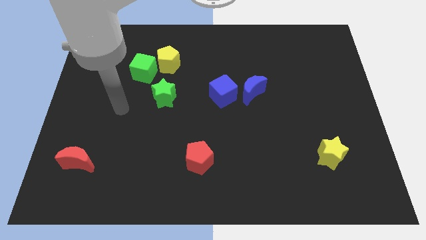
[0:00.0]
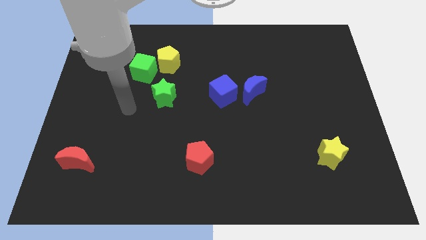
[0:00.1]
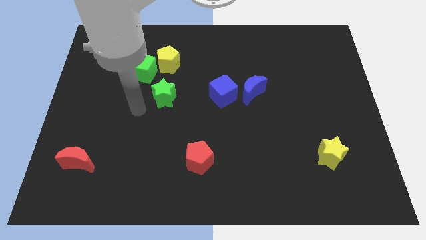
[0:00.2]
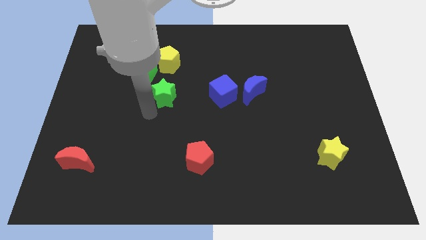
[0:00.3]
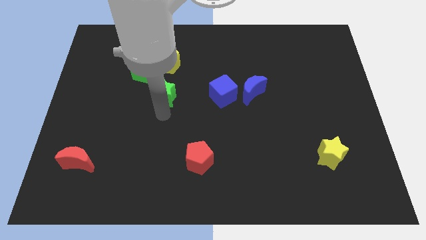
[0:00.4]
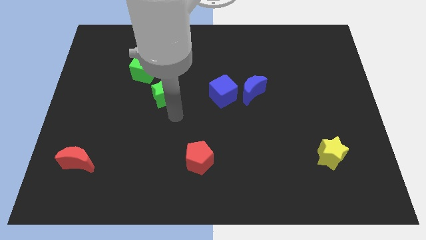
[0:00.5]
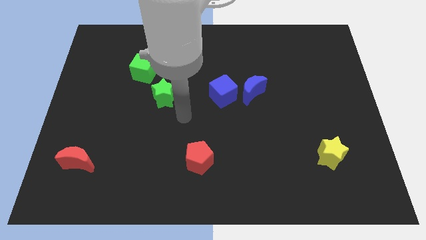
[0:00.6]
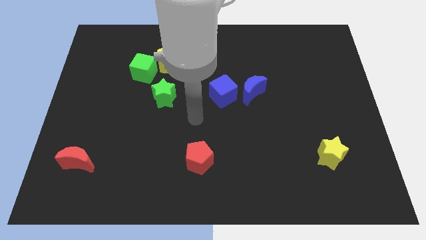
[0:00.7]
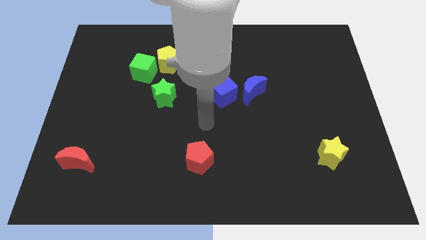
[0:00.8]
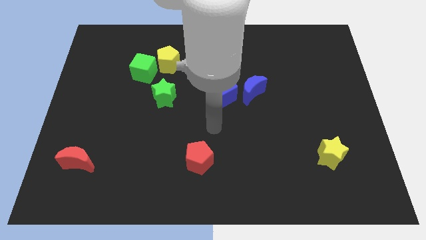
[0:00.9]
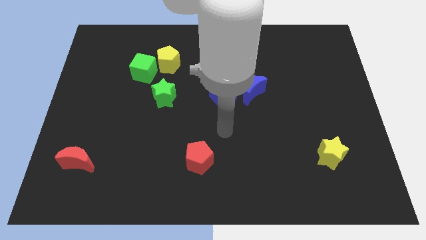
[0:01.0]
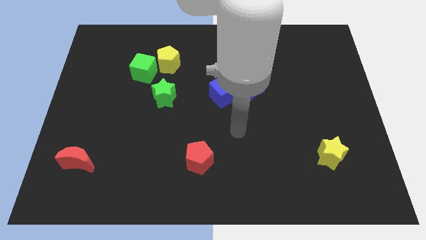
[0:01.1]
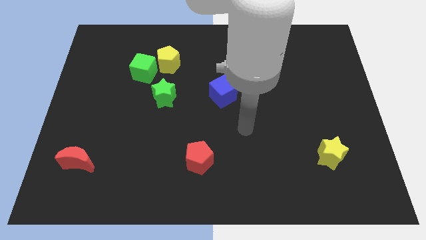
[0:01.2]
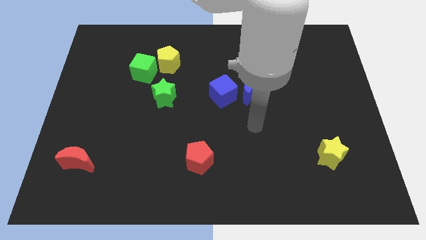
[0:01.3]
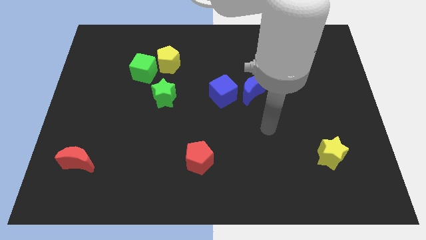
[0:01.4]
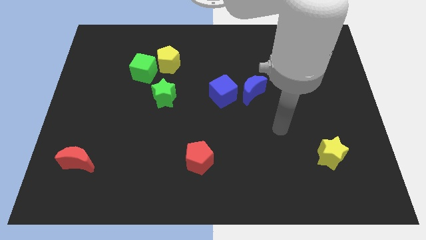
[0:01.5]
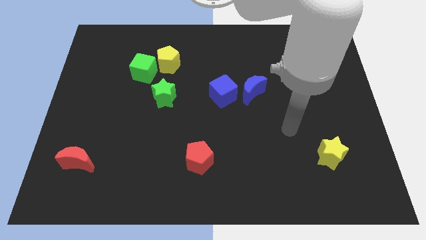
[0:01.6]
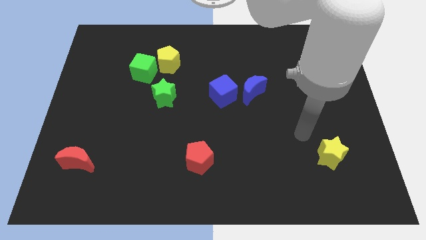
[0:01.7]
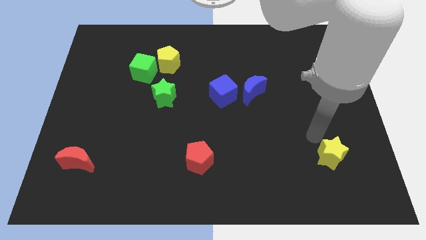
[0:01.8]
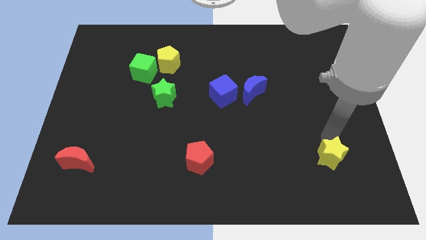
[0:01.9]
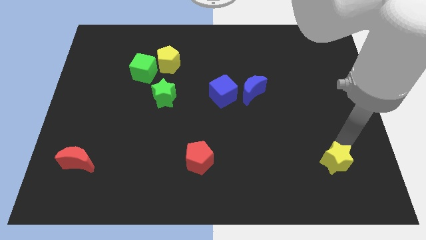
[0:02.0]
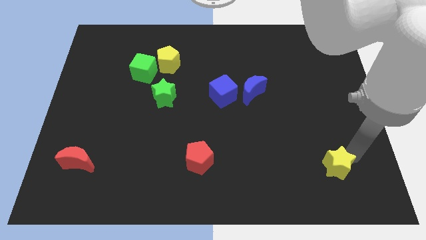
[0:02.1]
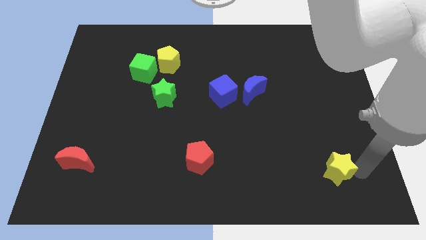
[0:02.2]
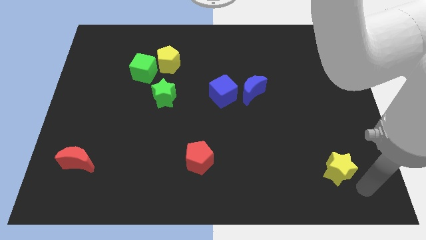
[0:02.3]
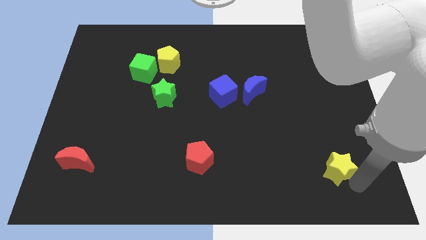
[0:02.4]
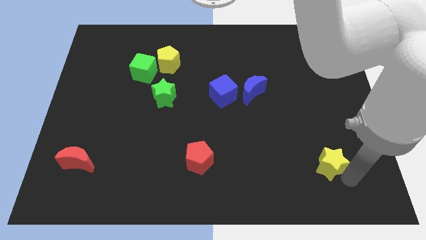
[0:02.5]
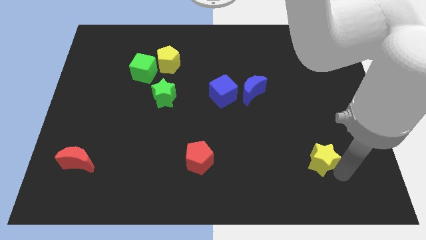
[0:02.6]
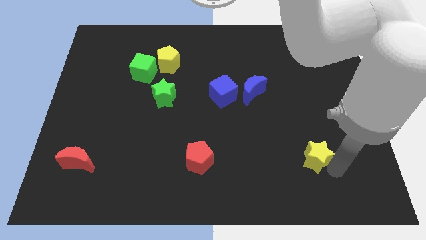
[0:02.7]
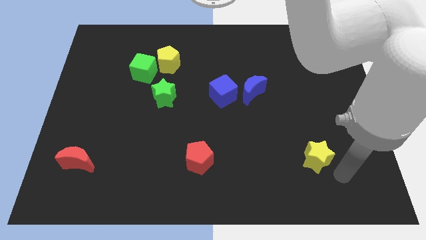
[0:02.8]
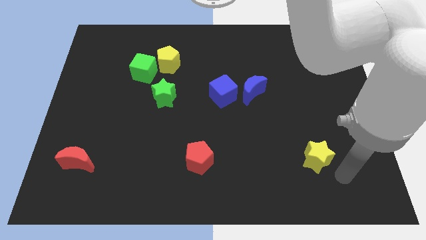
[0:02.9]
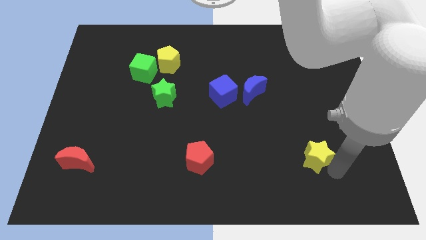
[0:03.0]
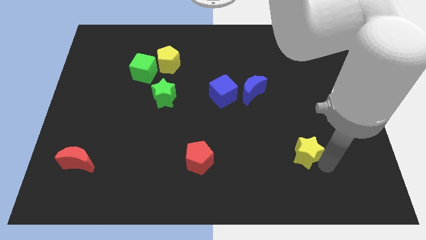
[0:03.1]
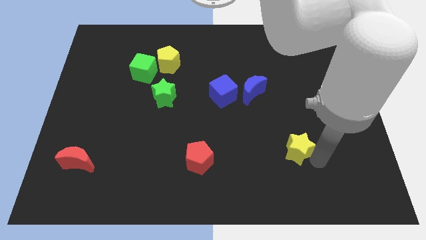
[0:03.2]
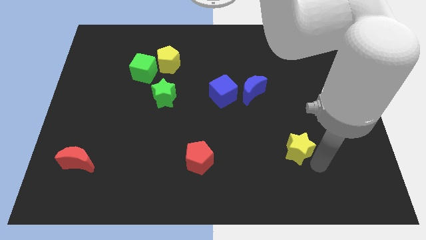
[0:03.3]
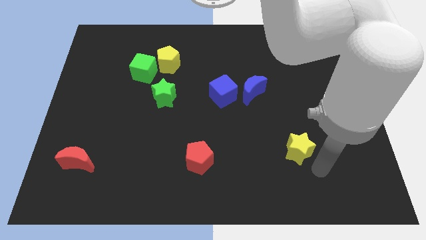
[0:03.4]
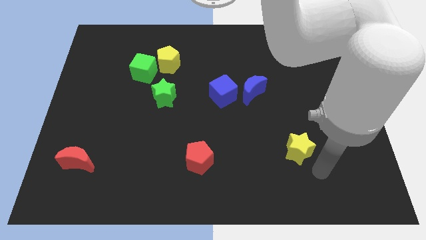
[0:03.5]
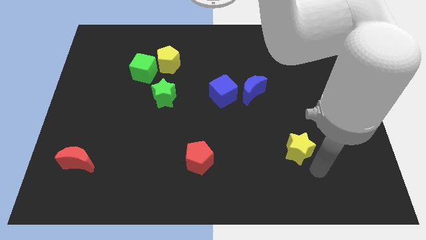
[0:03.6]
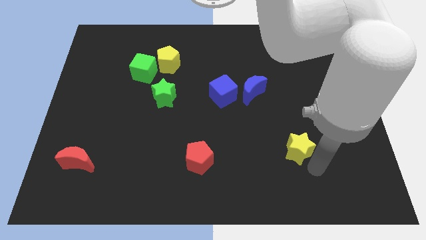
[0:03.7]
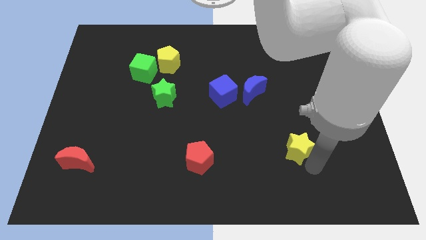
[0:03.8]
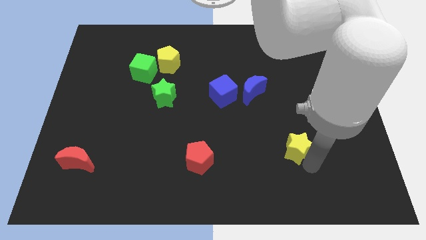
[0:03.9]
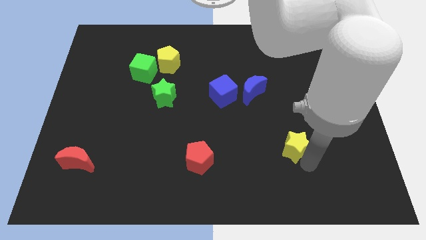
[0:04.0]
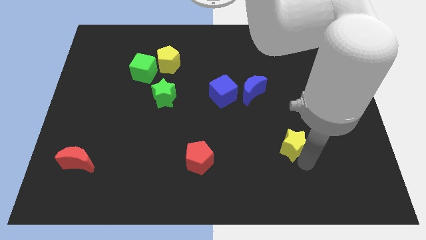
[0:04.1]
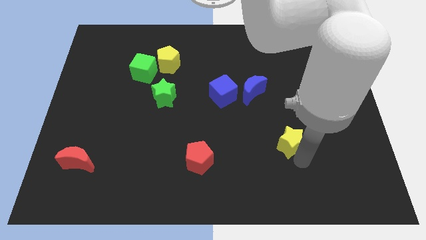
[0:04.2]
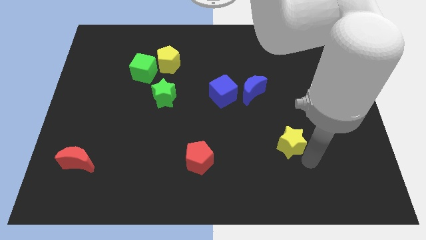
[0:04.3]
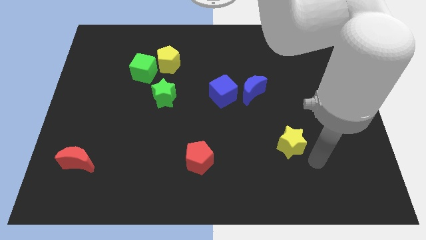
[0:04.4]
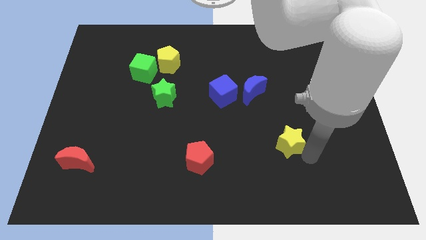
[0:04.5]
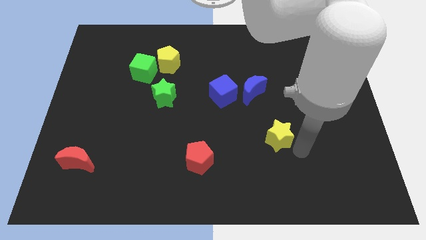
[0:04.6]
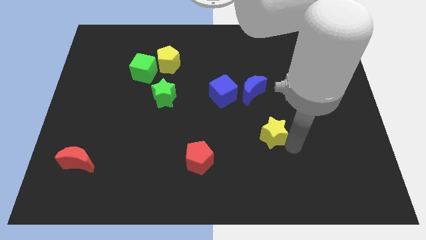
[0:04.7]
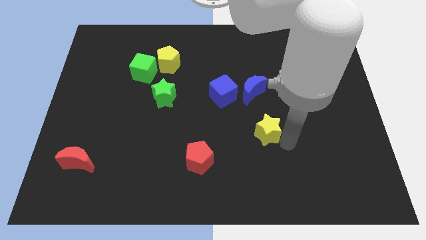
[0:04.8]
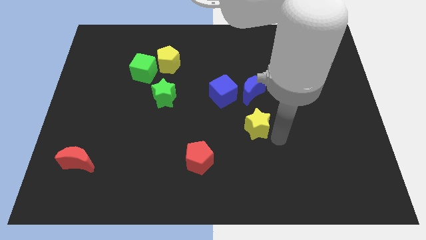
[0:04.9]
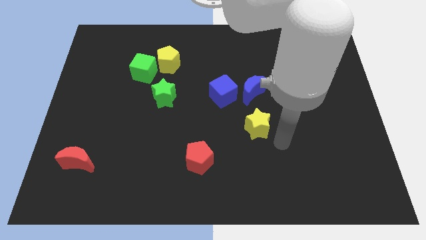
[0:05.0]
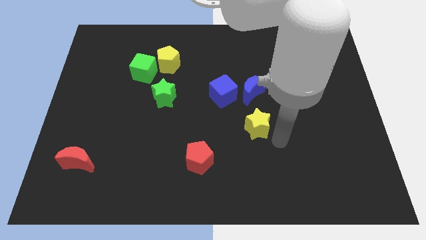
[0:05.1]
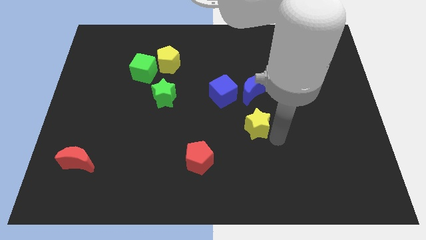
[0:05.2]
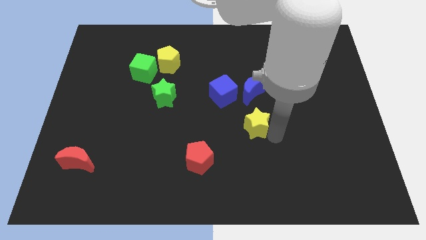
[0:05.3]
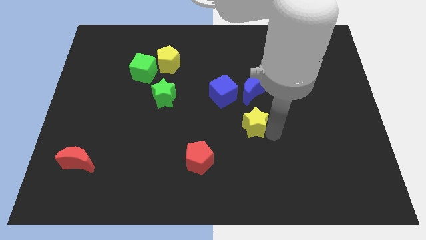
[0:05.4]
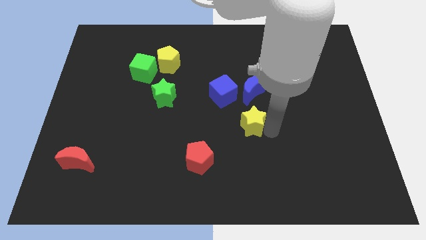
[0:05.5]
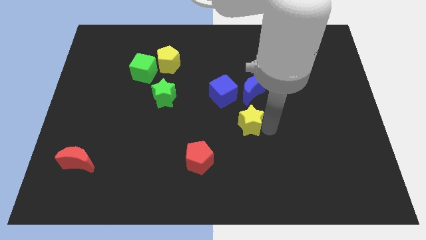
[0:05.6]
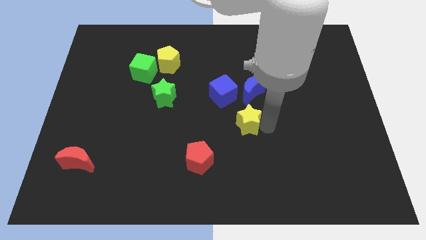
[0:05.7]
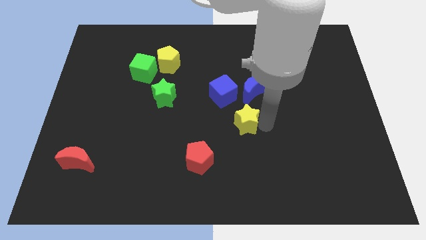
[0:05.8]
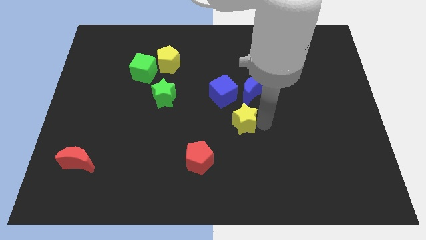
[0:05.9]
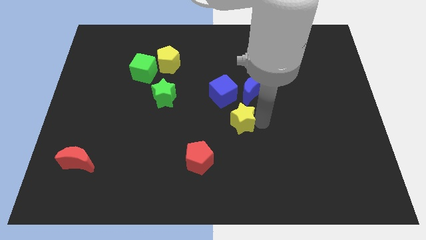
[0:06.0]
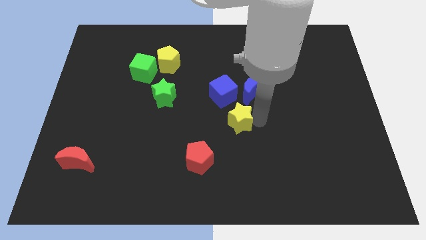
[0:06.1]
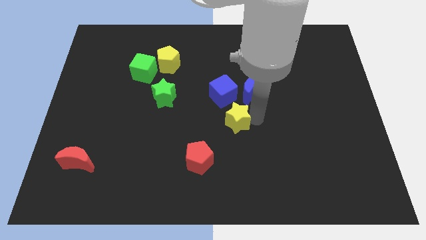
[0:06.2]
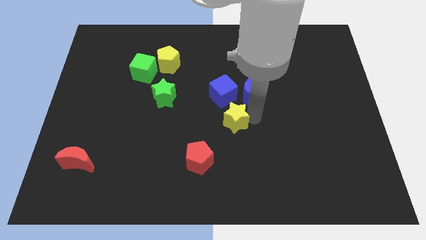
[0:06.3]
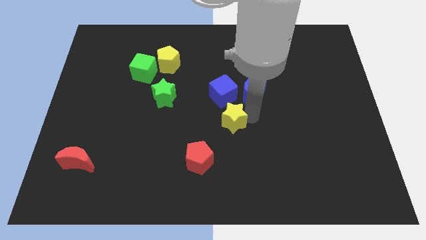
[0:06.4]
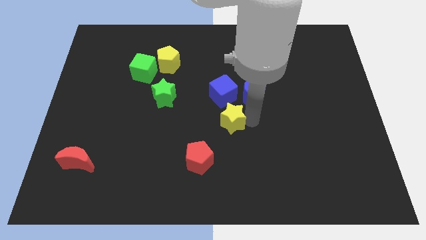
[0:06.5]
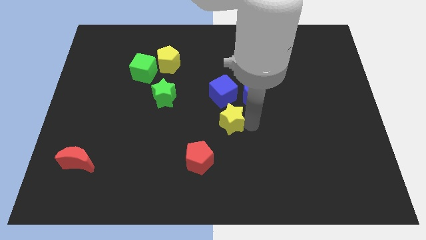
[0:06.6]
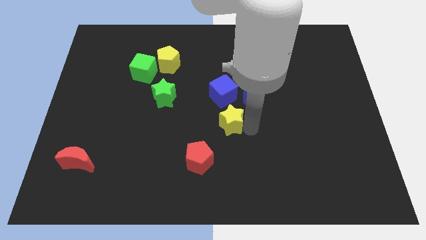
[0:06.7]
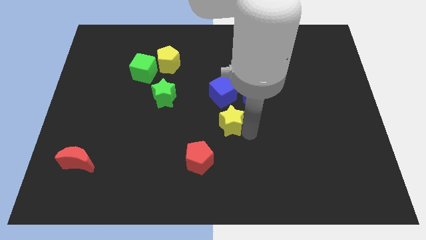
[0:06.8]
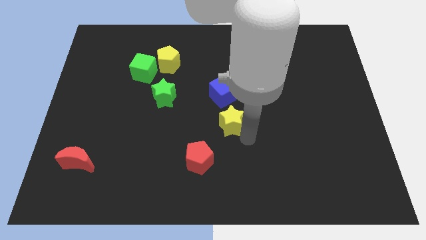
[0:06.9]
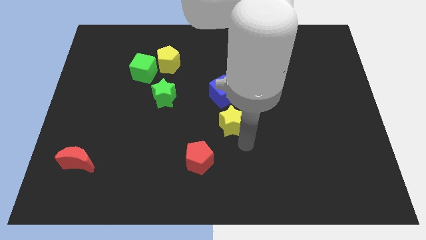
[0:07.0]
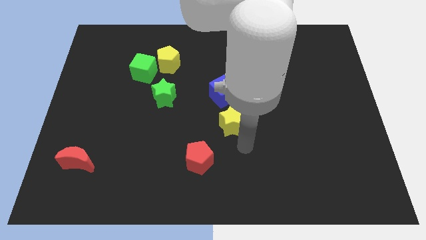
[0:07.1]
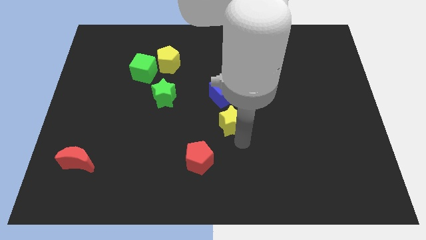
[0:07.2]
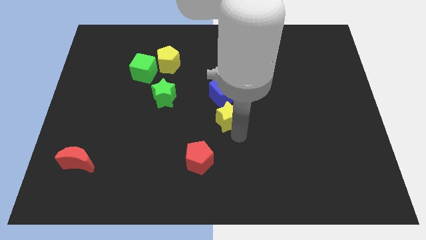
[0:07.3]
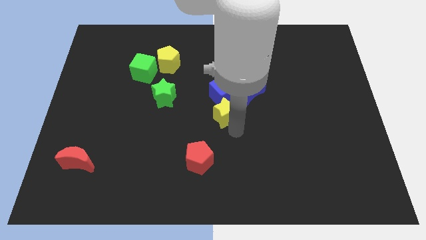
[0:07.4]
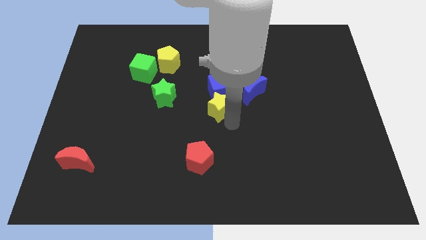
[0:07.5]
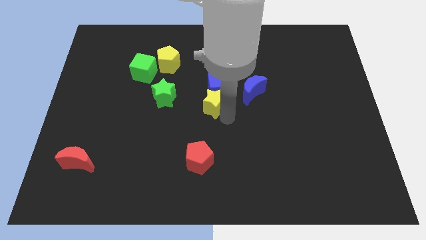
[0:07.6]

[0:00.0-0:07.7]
move the yellow star to the left of the blue moon
